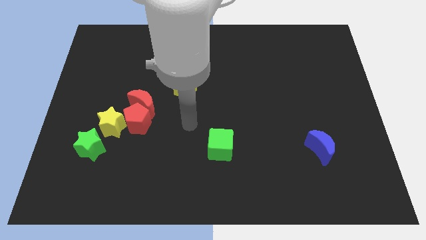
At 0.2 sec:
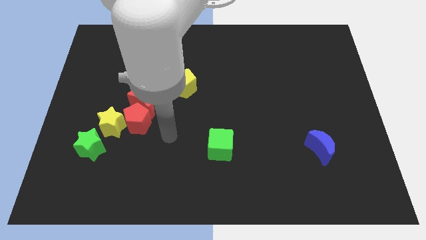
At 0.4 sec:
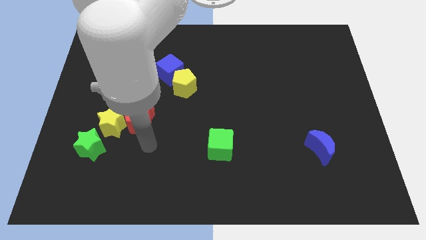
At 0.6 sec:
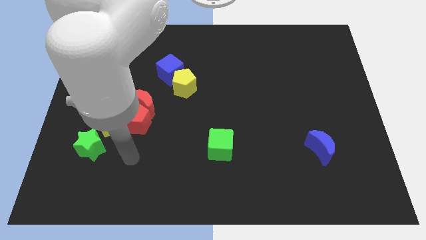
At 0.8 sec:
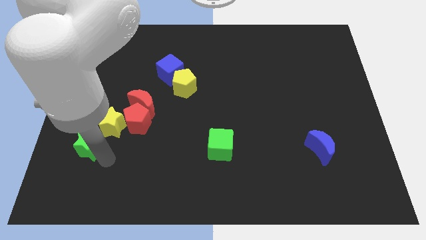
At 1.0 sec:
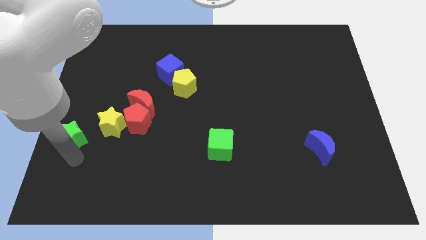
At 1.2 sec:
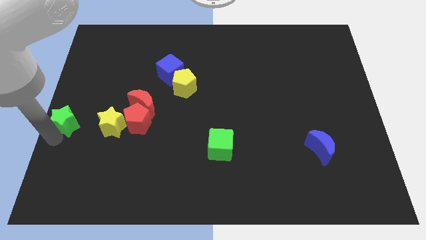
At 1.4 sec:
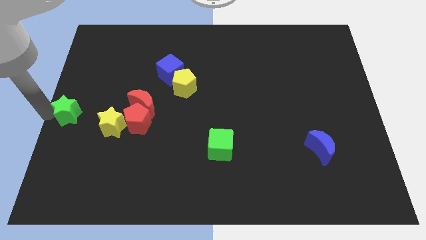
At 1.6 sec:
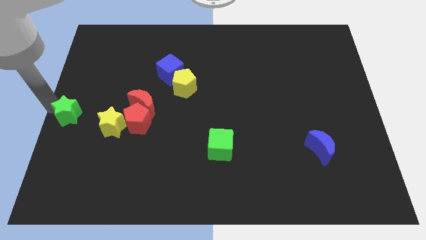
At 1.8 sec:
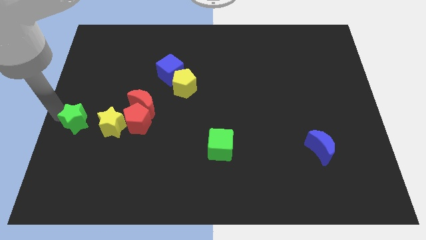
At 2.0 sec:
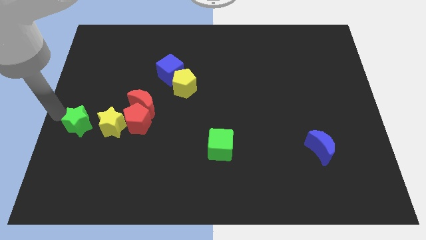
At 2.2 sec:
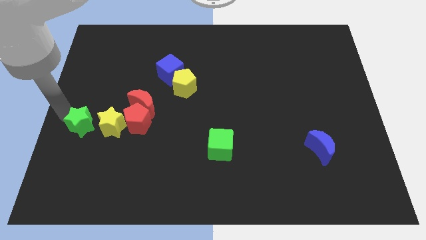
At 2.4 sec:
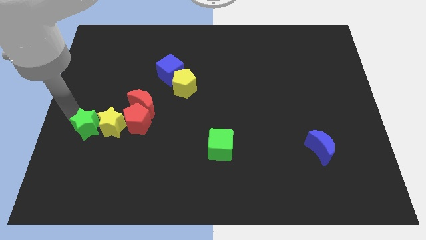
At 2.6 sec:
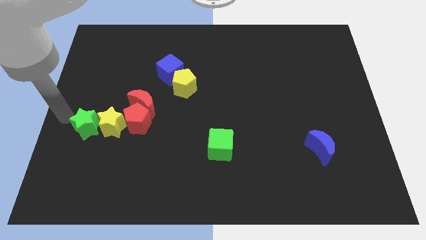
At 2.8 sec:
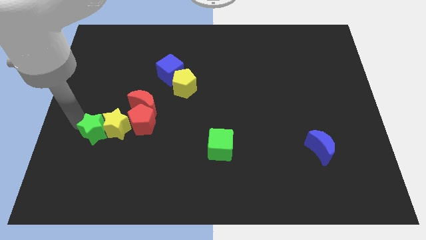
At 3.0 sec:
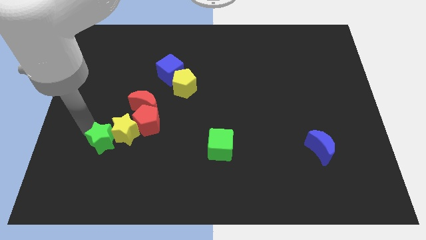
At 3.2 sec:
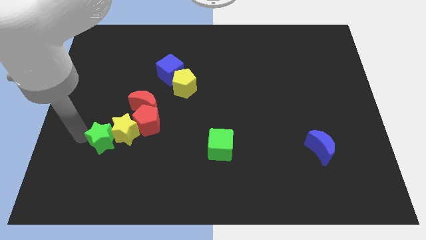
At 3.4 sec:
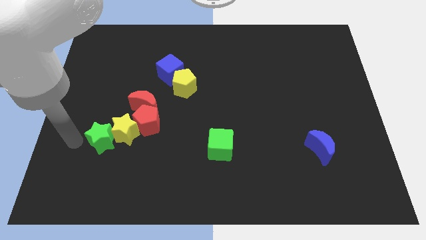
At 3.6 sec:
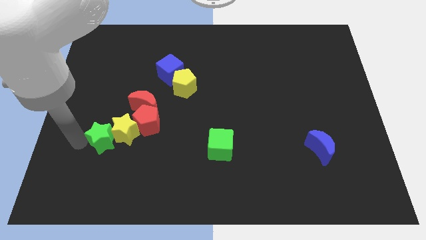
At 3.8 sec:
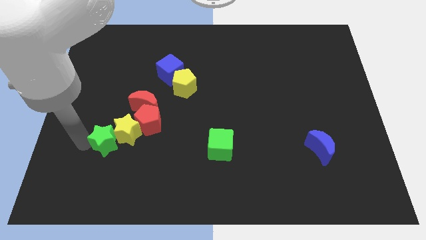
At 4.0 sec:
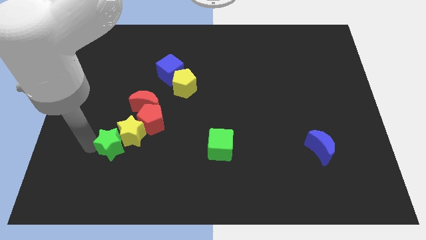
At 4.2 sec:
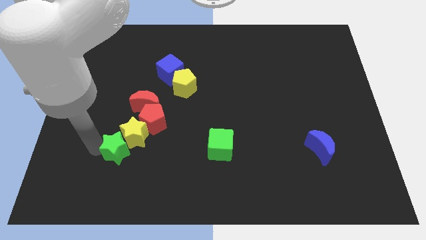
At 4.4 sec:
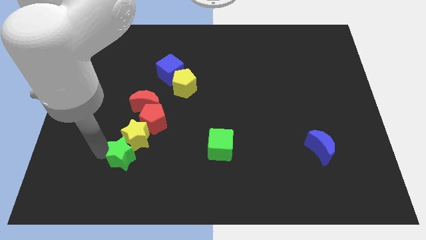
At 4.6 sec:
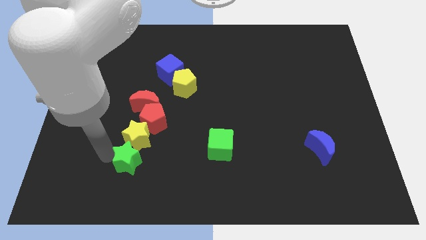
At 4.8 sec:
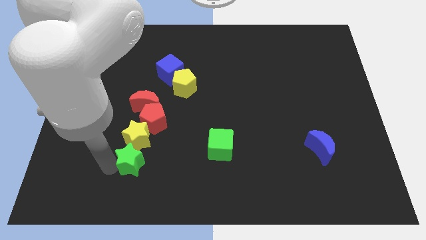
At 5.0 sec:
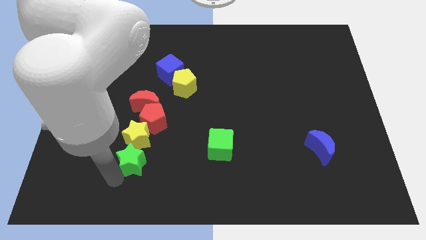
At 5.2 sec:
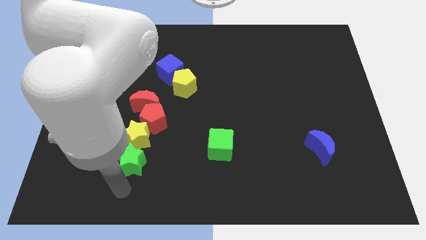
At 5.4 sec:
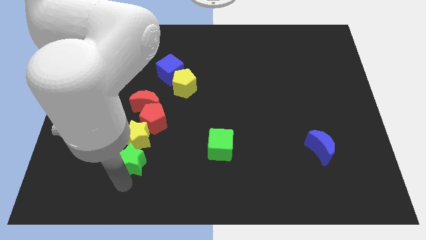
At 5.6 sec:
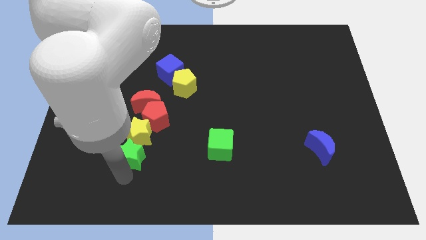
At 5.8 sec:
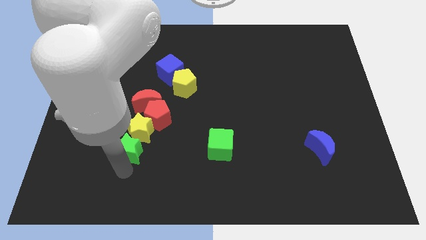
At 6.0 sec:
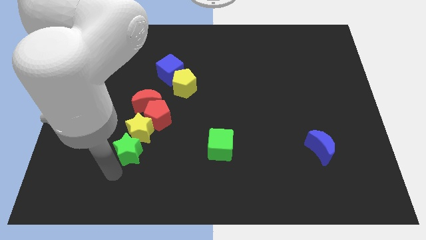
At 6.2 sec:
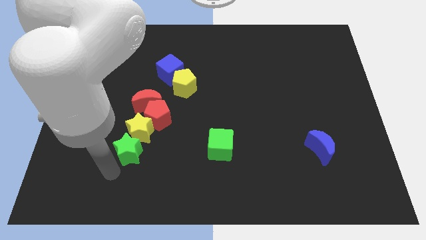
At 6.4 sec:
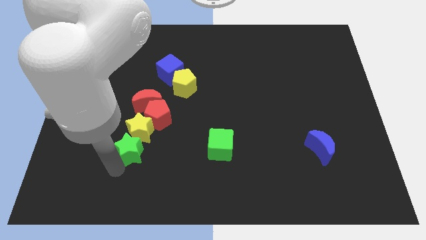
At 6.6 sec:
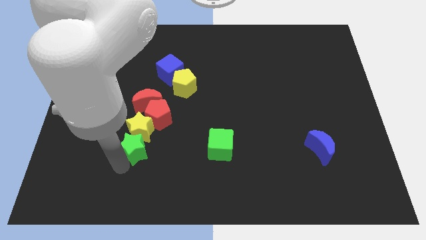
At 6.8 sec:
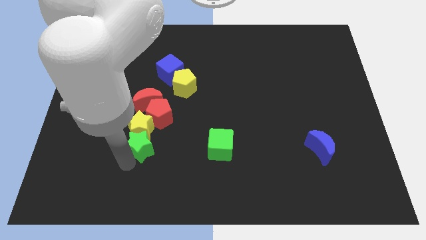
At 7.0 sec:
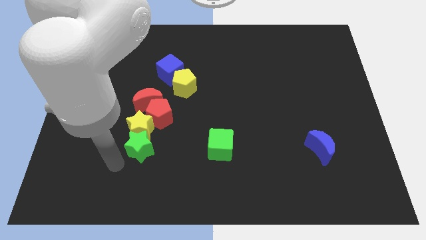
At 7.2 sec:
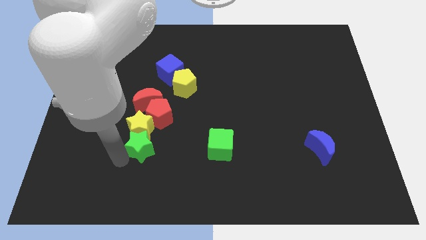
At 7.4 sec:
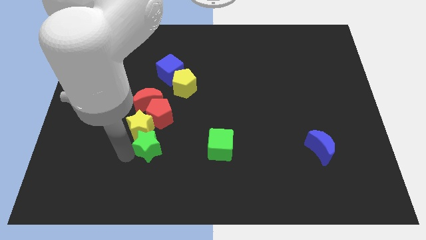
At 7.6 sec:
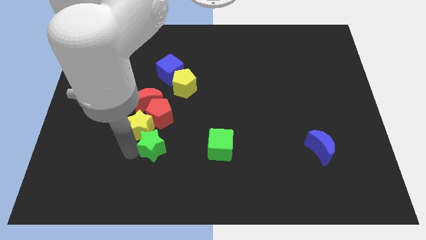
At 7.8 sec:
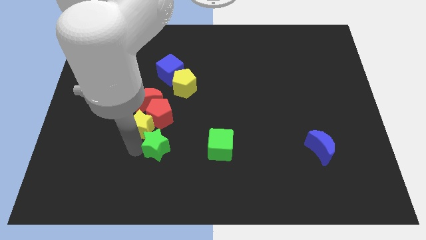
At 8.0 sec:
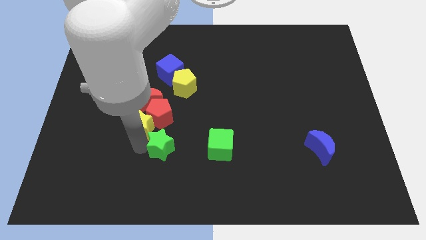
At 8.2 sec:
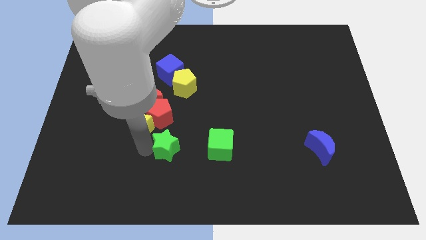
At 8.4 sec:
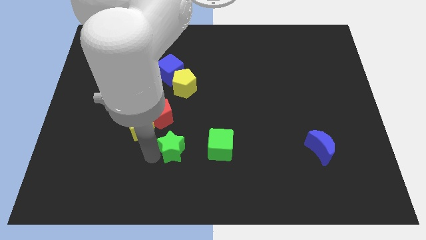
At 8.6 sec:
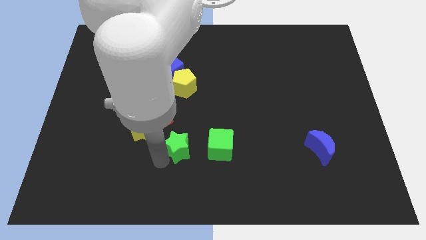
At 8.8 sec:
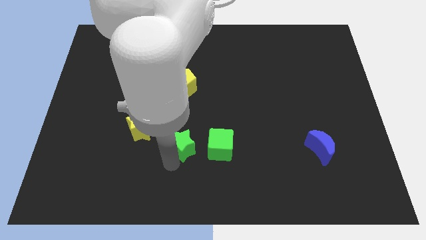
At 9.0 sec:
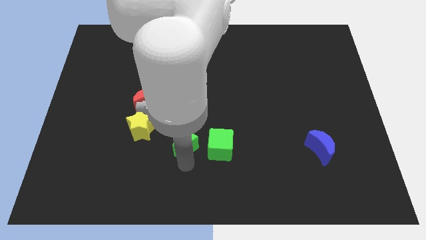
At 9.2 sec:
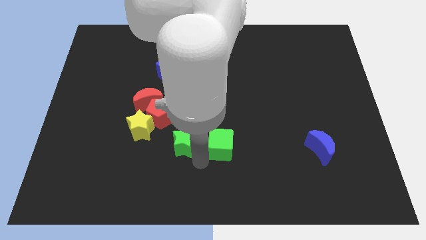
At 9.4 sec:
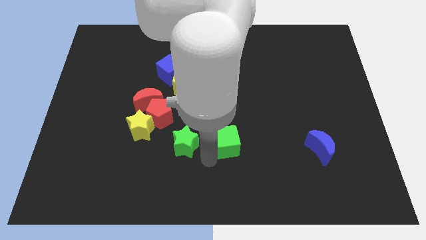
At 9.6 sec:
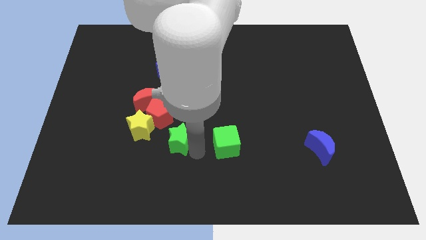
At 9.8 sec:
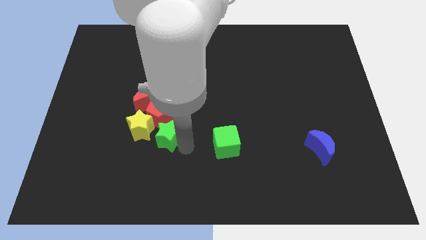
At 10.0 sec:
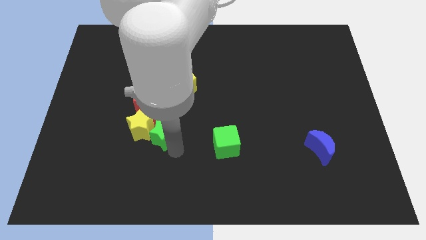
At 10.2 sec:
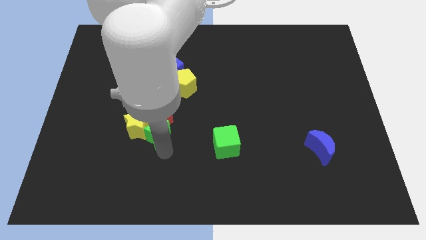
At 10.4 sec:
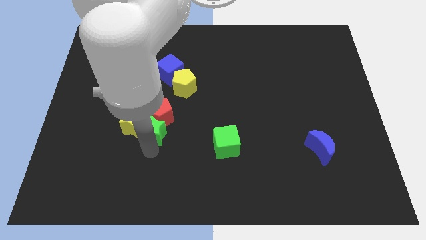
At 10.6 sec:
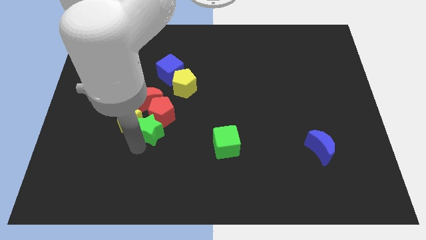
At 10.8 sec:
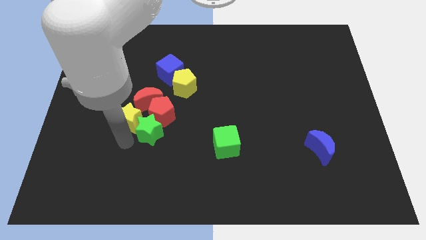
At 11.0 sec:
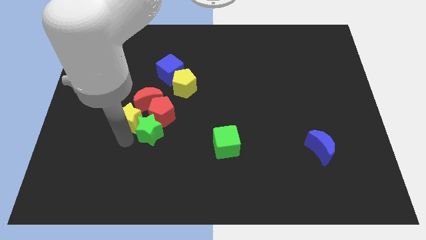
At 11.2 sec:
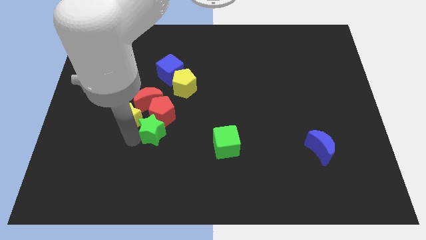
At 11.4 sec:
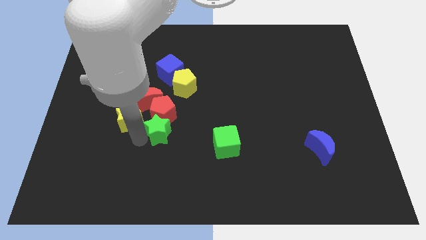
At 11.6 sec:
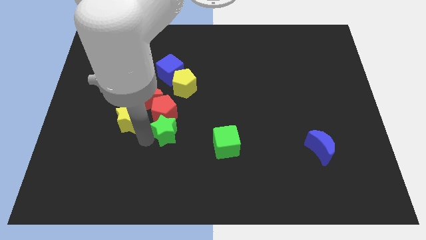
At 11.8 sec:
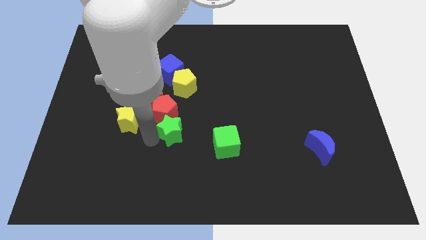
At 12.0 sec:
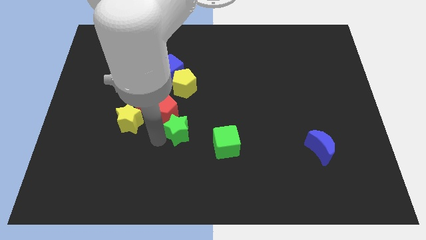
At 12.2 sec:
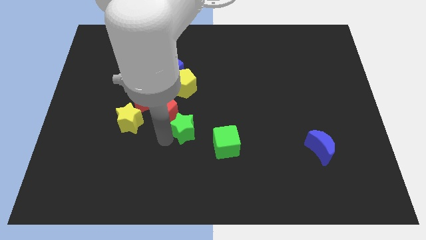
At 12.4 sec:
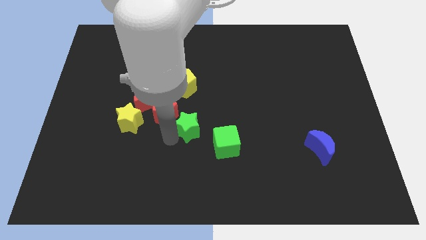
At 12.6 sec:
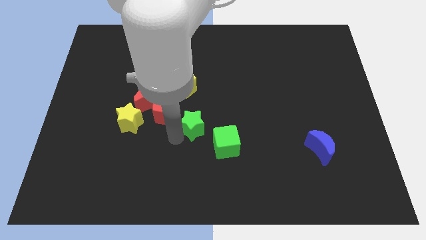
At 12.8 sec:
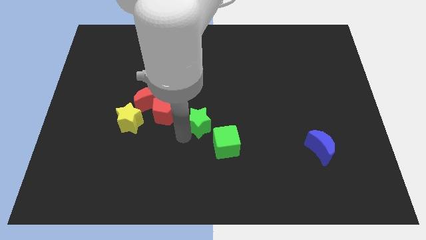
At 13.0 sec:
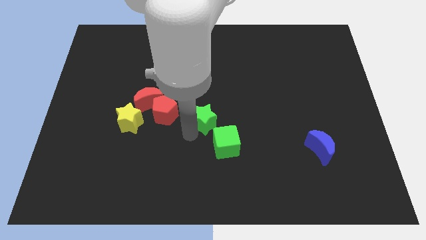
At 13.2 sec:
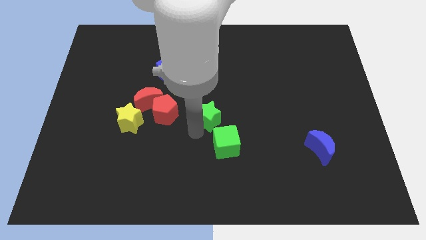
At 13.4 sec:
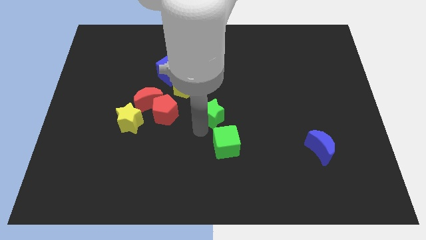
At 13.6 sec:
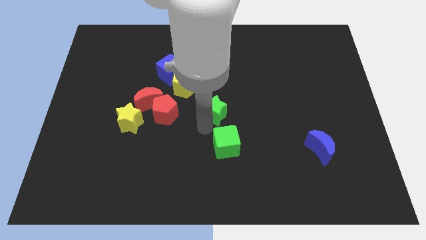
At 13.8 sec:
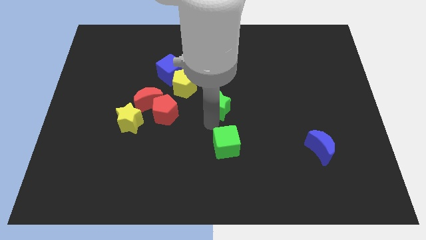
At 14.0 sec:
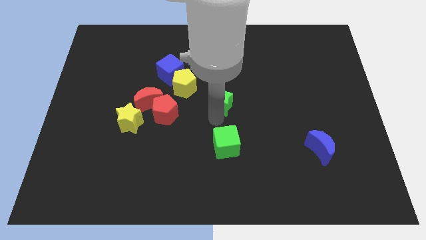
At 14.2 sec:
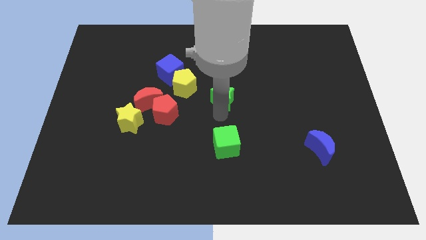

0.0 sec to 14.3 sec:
push the green star to the right side of the yellow pentagon
